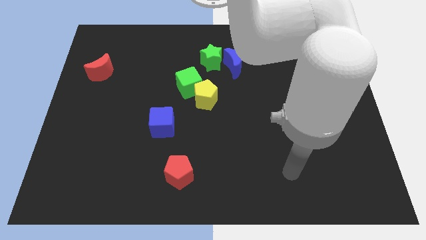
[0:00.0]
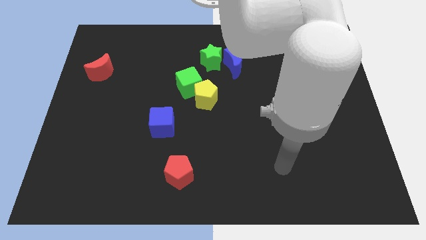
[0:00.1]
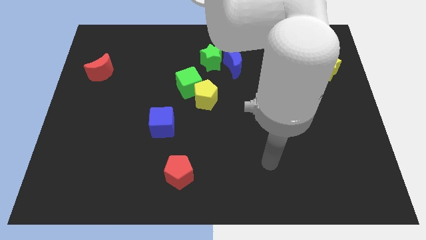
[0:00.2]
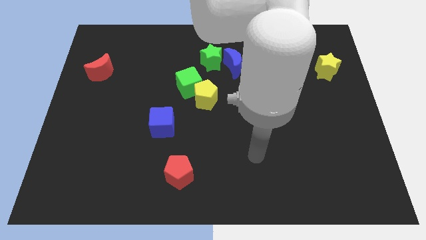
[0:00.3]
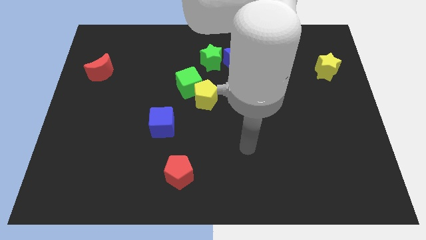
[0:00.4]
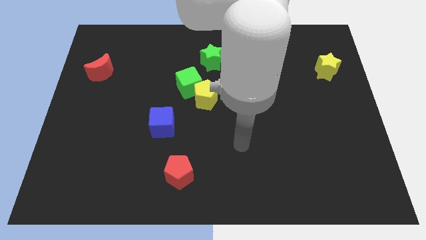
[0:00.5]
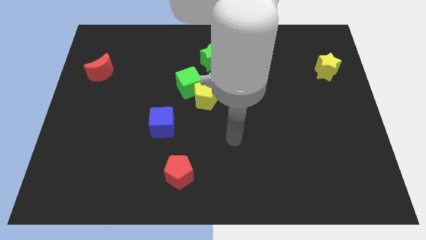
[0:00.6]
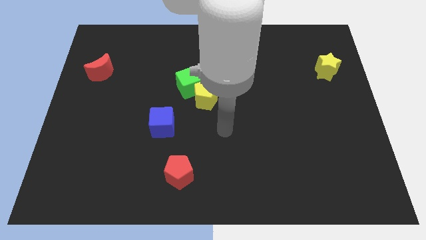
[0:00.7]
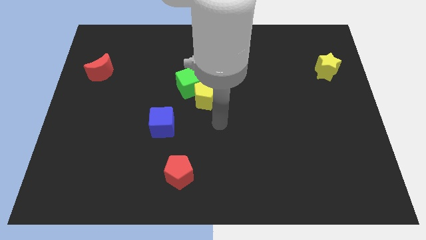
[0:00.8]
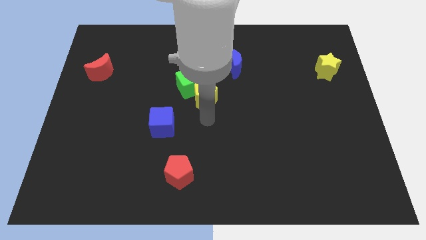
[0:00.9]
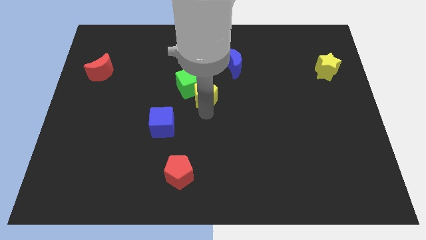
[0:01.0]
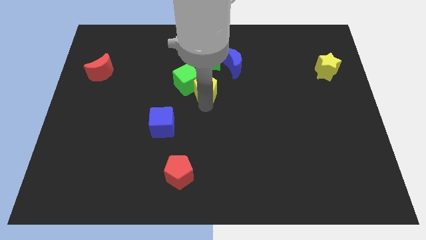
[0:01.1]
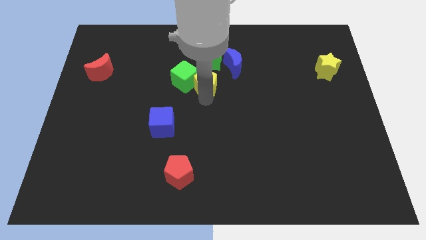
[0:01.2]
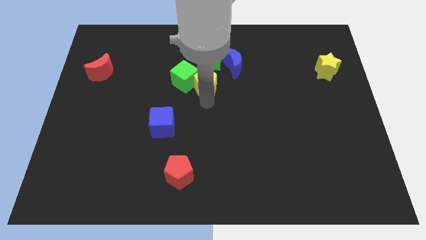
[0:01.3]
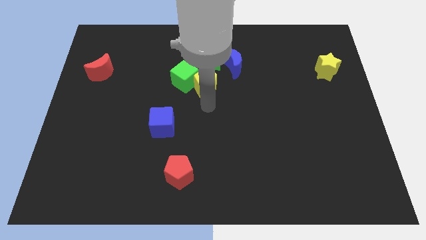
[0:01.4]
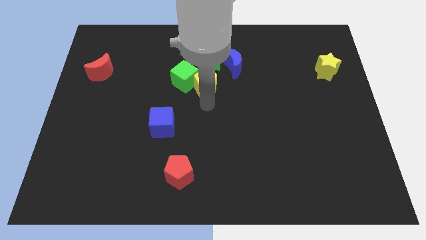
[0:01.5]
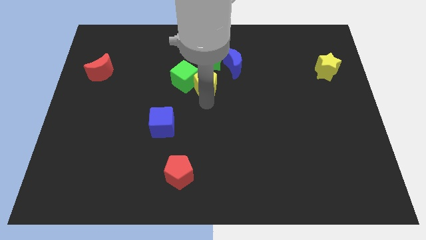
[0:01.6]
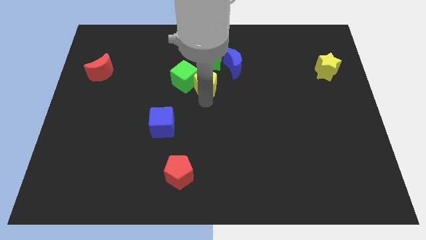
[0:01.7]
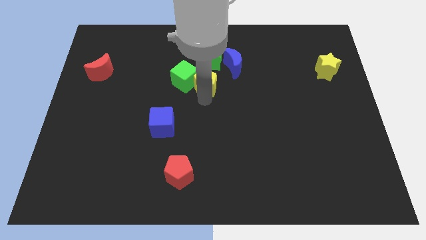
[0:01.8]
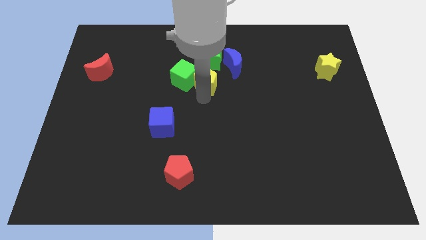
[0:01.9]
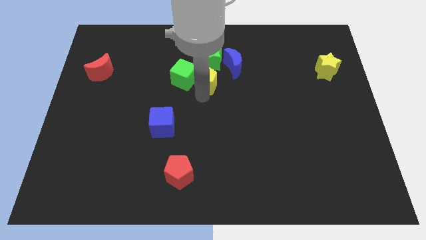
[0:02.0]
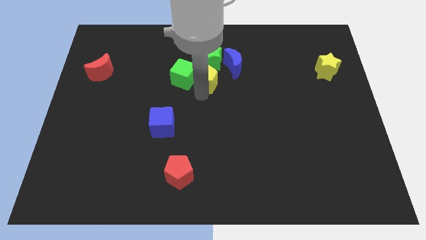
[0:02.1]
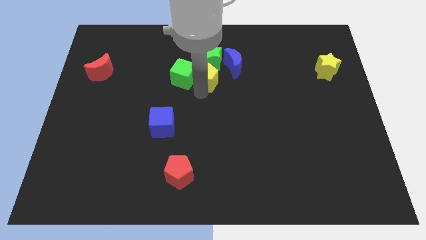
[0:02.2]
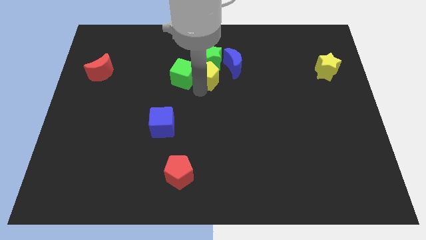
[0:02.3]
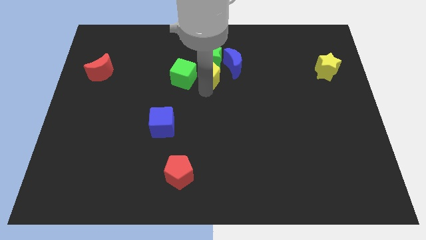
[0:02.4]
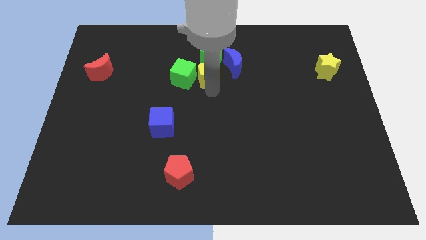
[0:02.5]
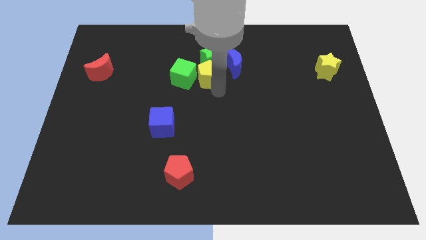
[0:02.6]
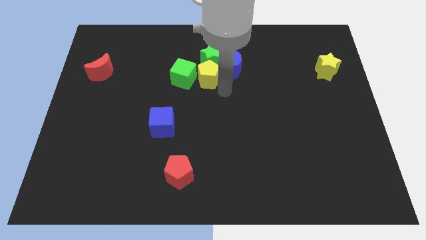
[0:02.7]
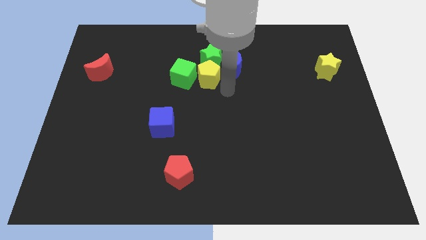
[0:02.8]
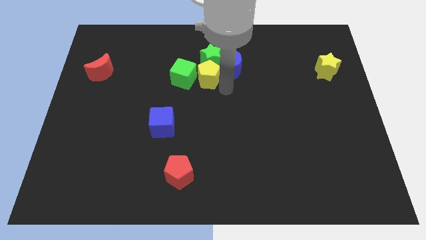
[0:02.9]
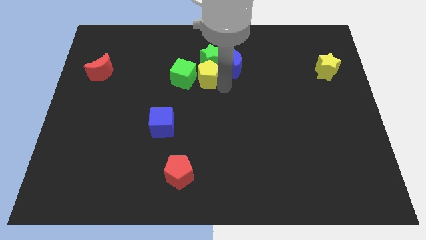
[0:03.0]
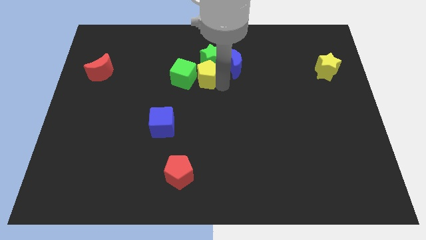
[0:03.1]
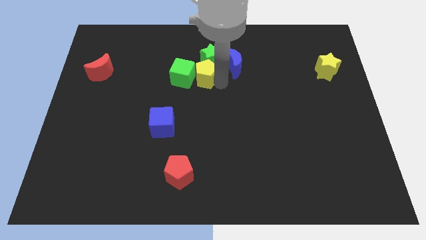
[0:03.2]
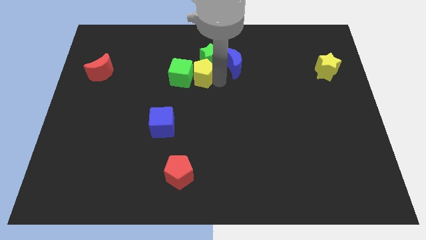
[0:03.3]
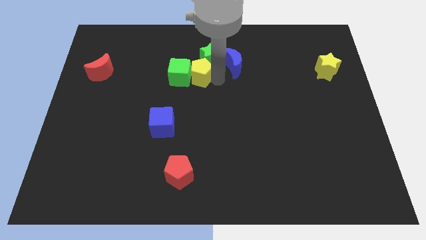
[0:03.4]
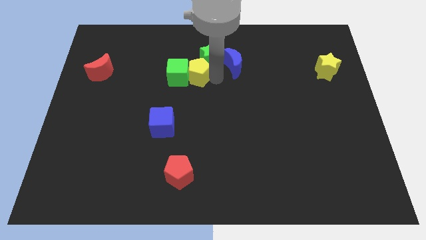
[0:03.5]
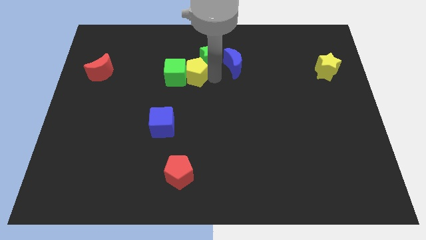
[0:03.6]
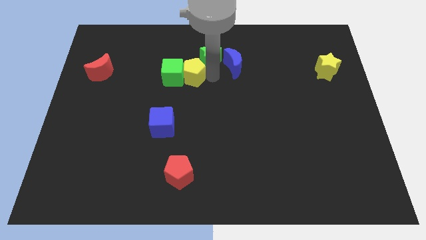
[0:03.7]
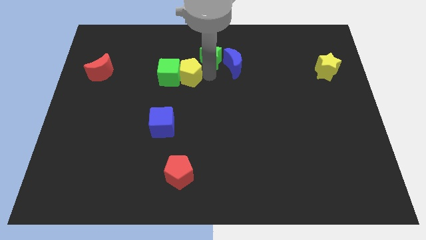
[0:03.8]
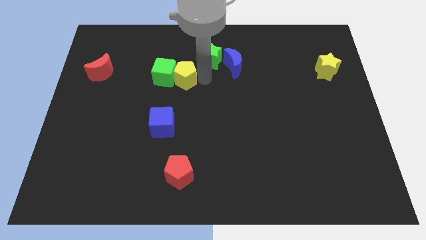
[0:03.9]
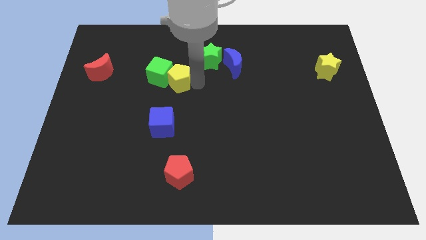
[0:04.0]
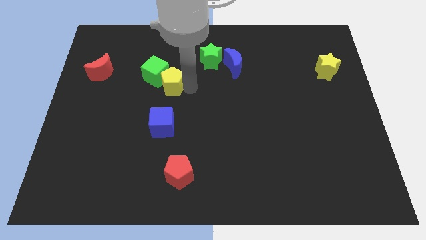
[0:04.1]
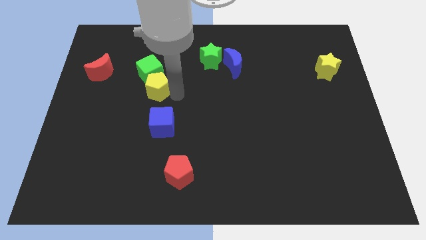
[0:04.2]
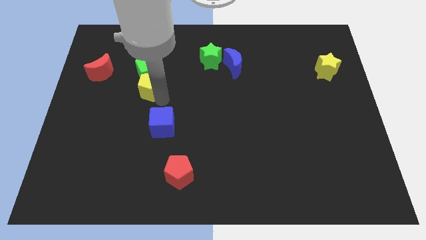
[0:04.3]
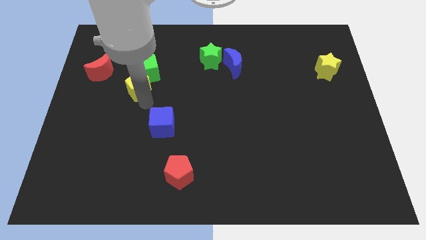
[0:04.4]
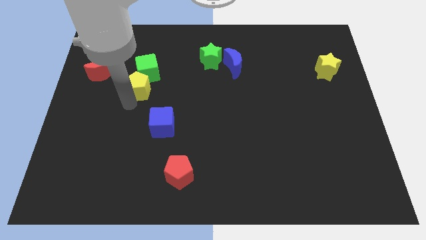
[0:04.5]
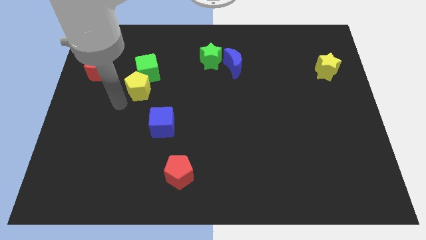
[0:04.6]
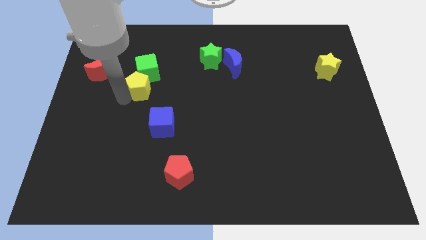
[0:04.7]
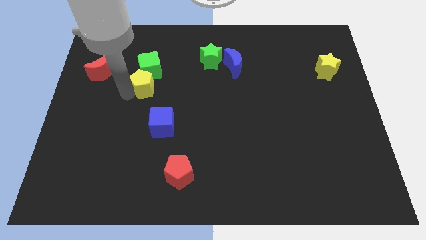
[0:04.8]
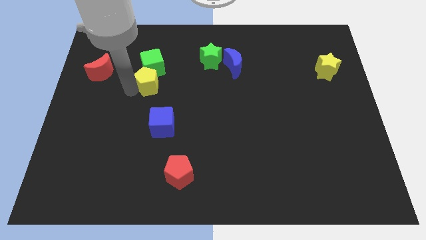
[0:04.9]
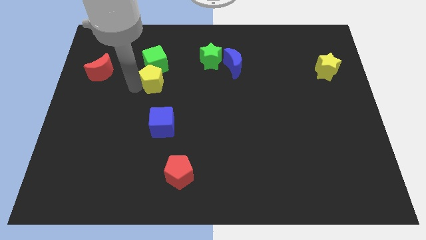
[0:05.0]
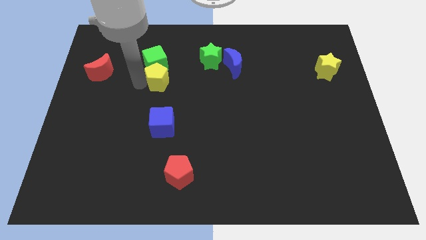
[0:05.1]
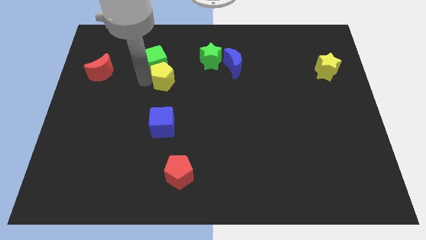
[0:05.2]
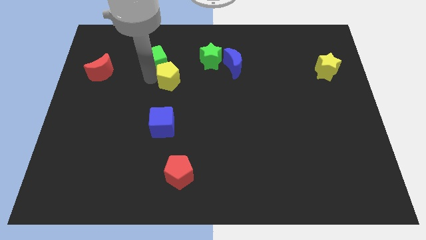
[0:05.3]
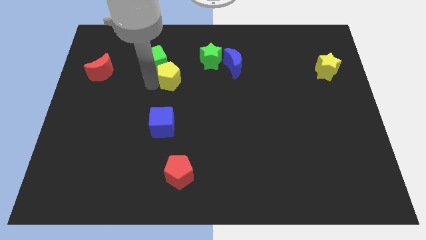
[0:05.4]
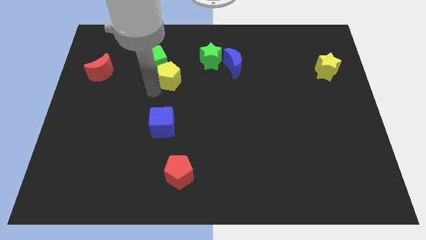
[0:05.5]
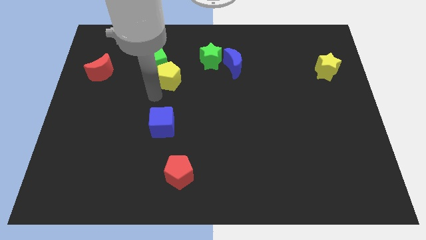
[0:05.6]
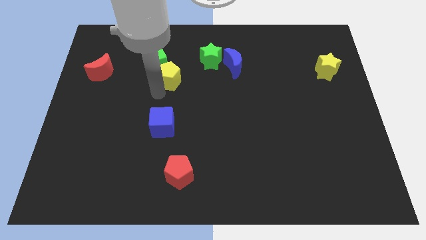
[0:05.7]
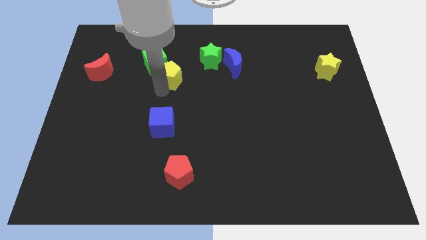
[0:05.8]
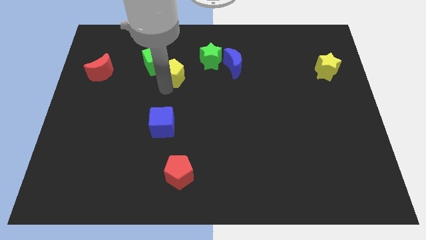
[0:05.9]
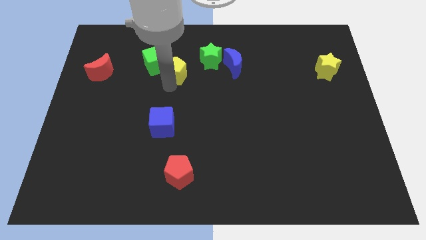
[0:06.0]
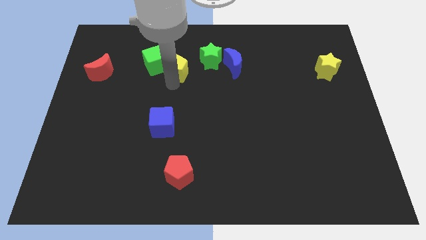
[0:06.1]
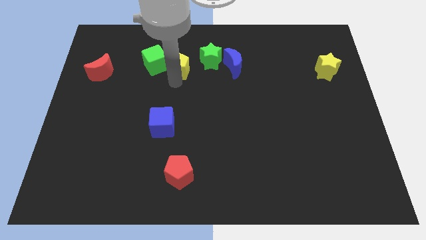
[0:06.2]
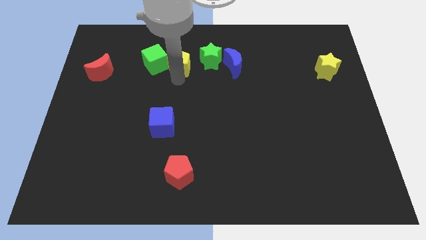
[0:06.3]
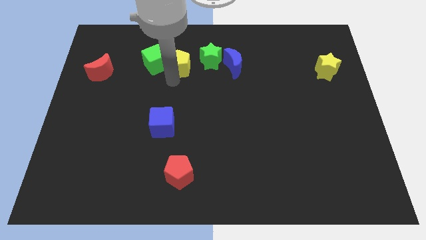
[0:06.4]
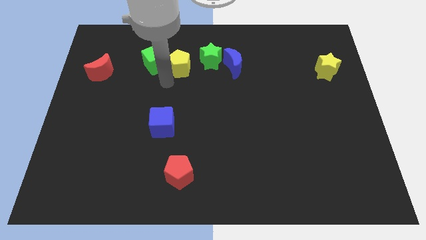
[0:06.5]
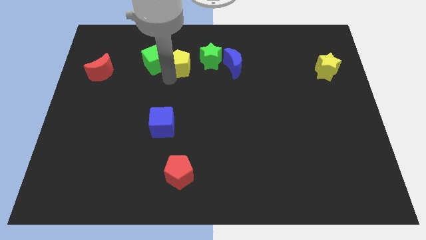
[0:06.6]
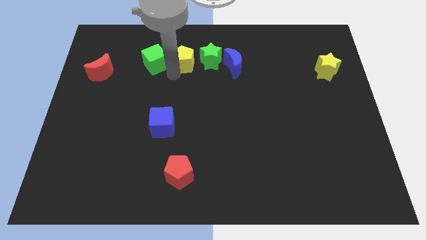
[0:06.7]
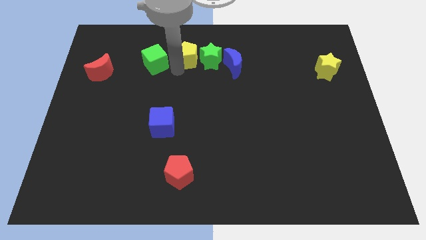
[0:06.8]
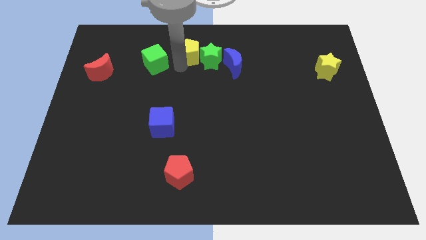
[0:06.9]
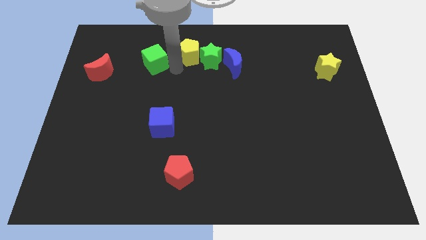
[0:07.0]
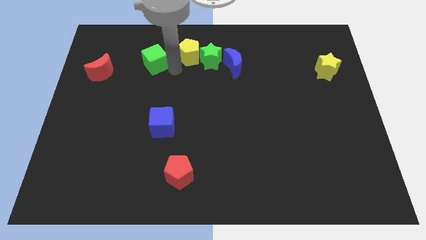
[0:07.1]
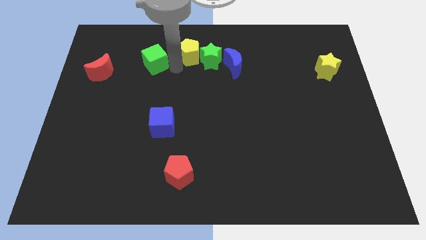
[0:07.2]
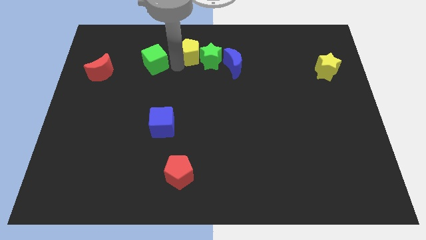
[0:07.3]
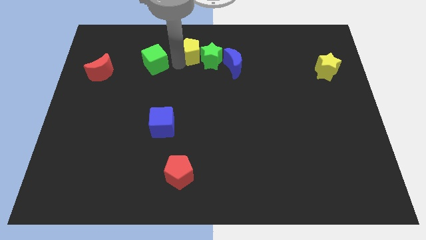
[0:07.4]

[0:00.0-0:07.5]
put the yellow pentagon to the towards your base
